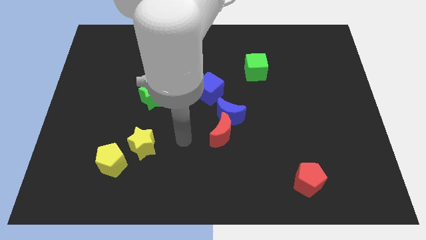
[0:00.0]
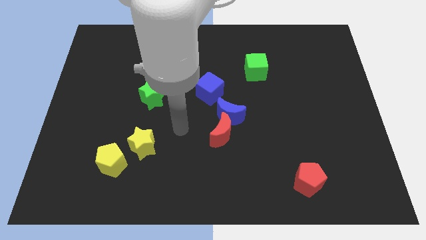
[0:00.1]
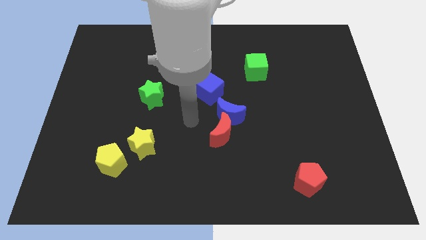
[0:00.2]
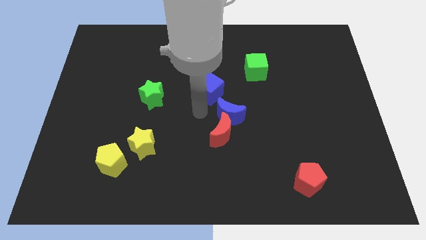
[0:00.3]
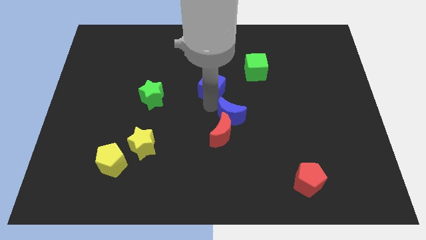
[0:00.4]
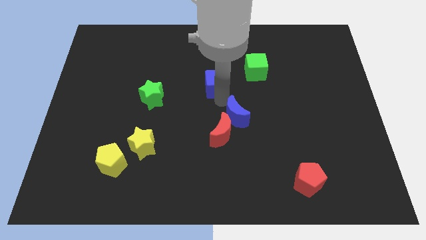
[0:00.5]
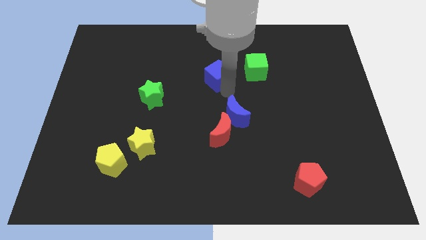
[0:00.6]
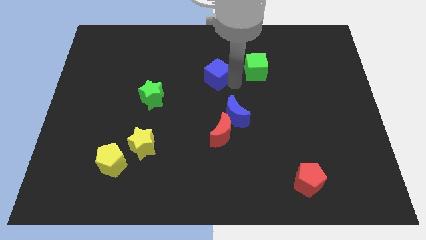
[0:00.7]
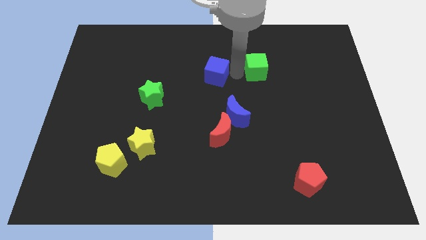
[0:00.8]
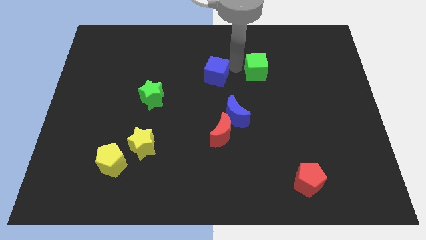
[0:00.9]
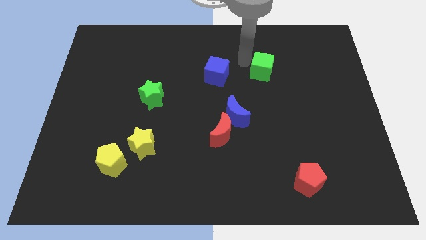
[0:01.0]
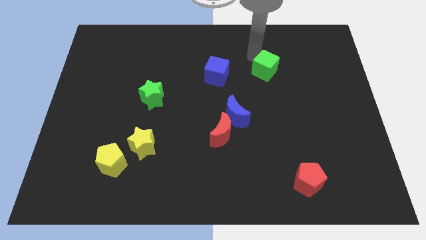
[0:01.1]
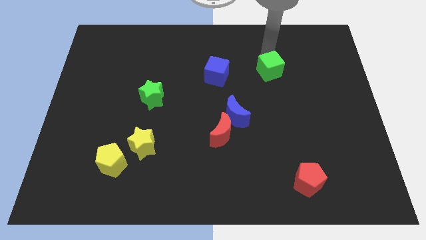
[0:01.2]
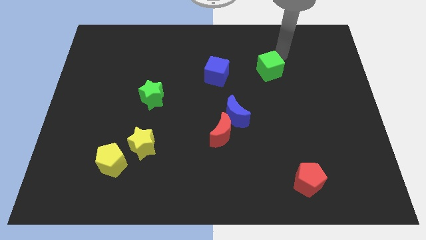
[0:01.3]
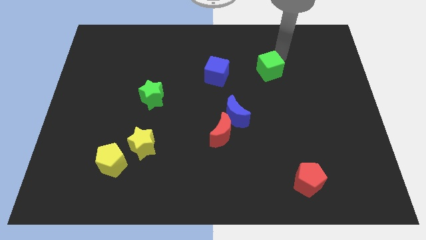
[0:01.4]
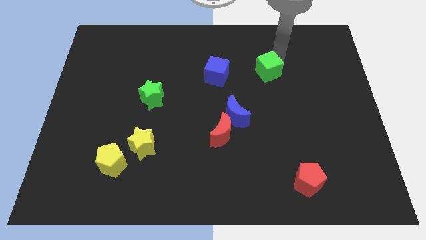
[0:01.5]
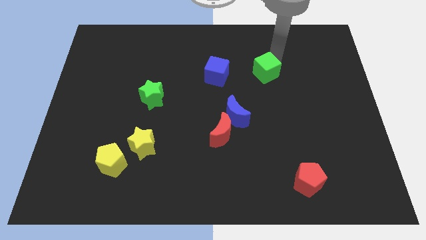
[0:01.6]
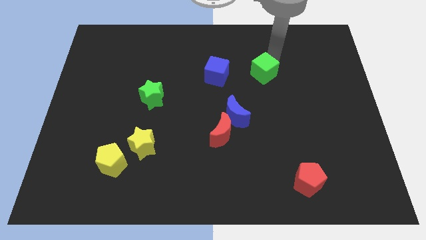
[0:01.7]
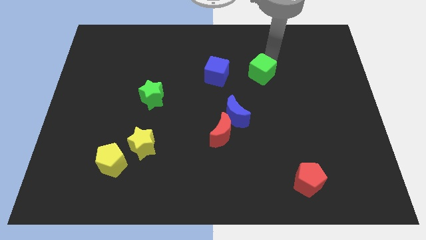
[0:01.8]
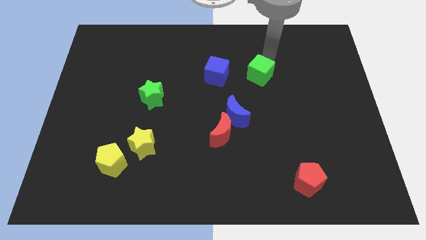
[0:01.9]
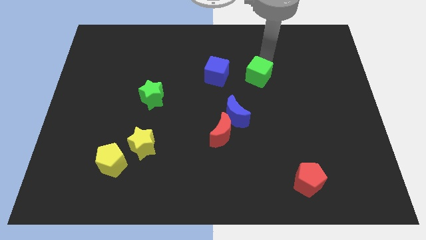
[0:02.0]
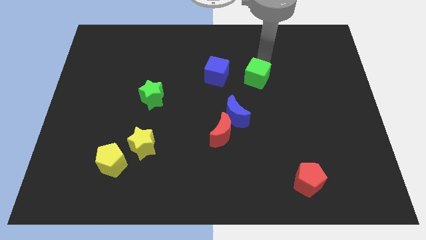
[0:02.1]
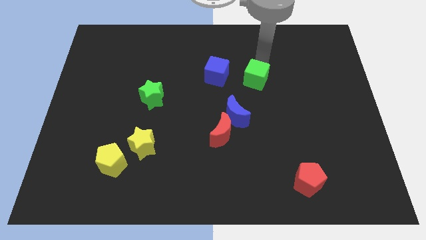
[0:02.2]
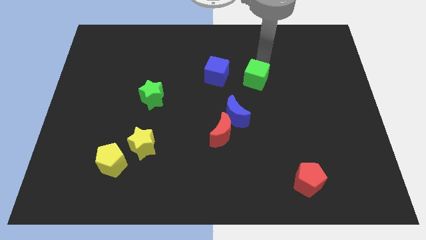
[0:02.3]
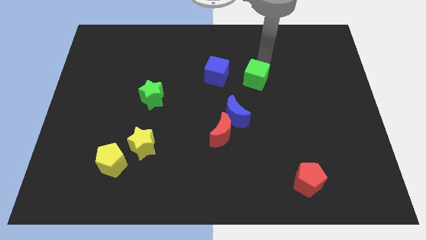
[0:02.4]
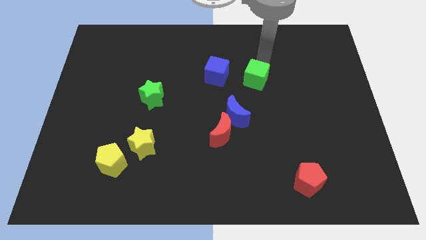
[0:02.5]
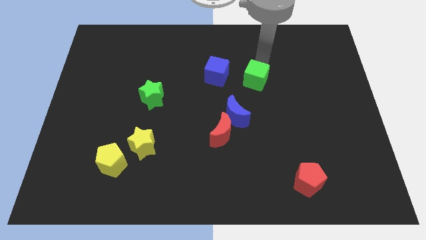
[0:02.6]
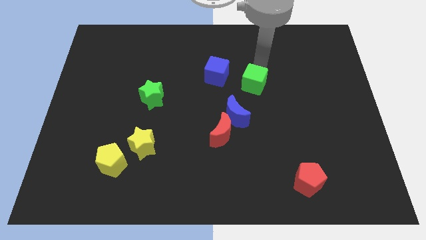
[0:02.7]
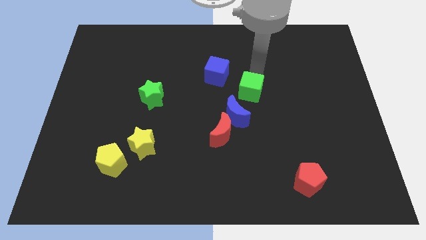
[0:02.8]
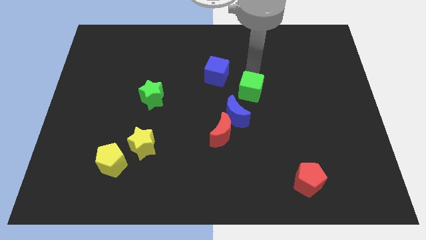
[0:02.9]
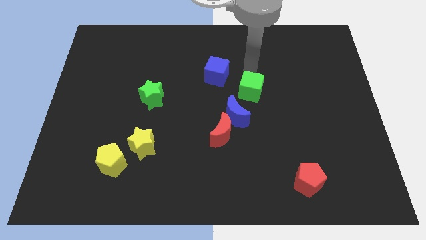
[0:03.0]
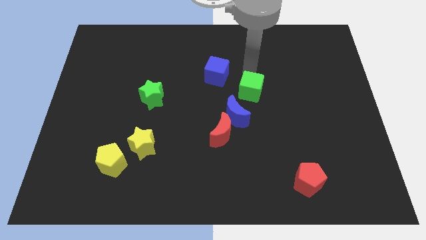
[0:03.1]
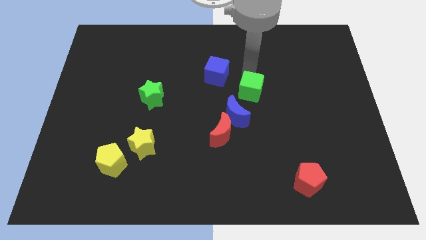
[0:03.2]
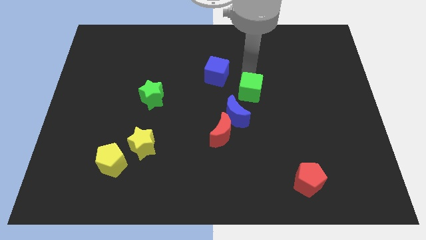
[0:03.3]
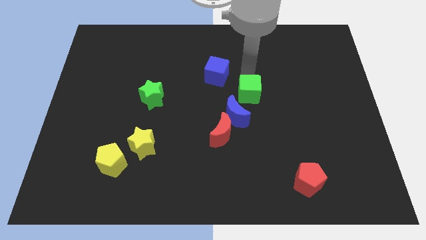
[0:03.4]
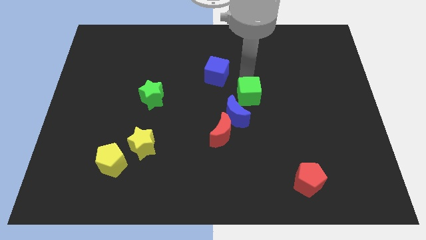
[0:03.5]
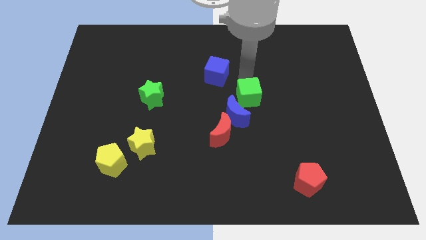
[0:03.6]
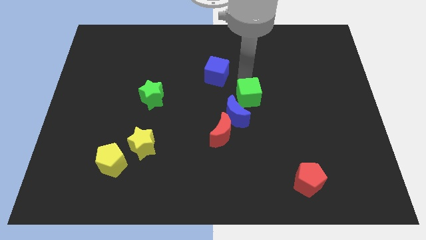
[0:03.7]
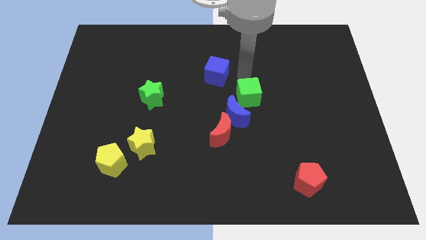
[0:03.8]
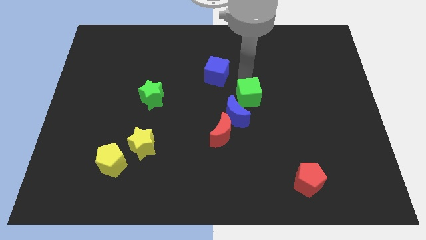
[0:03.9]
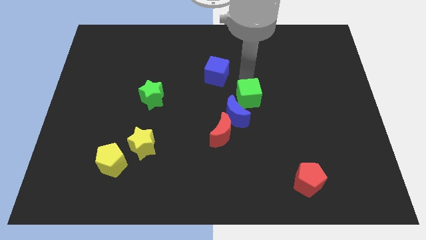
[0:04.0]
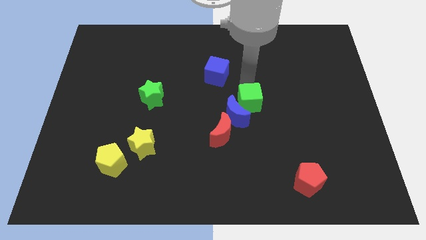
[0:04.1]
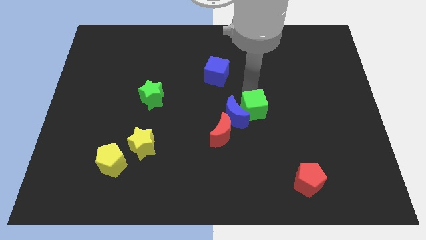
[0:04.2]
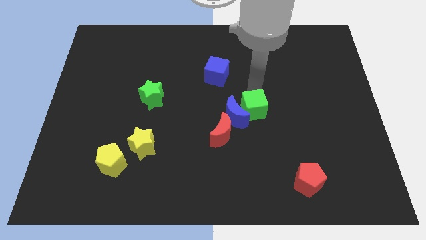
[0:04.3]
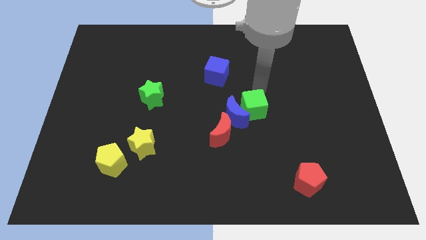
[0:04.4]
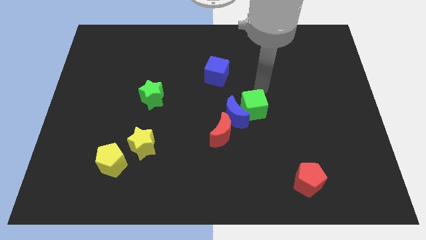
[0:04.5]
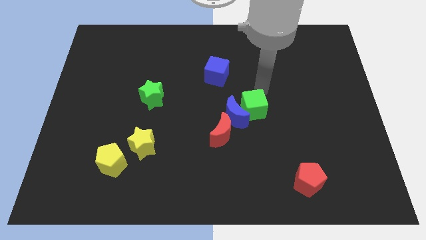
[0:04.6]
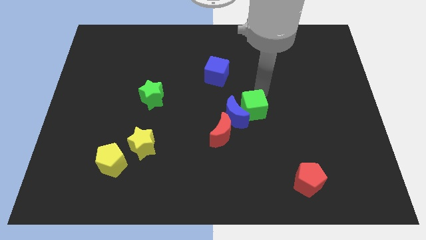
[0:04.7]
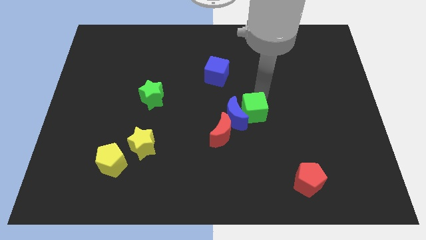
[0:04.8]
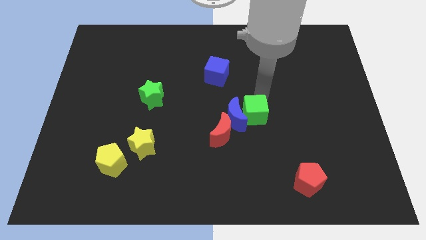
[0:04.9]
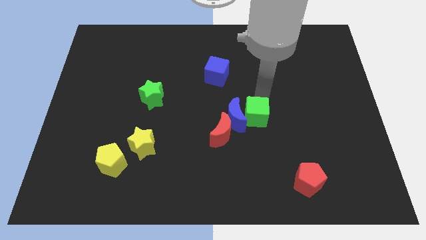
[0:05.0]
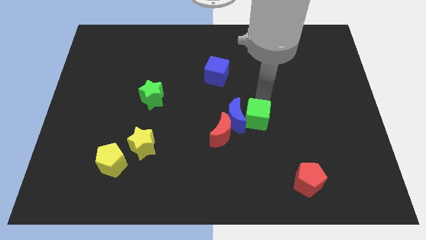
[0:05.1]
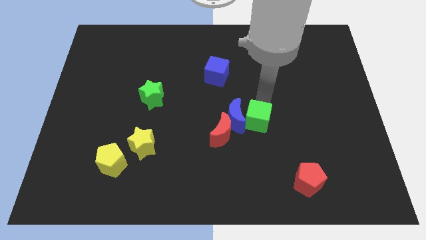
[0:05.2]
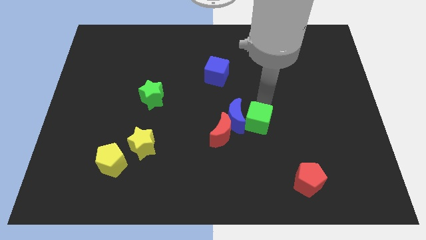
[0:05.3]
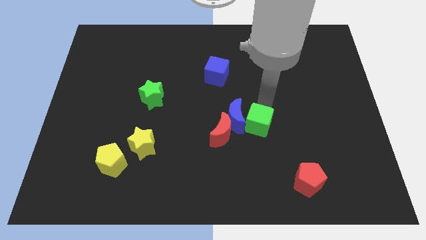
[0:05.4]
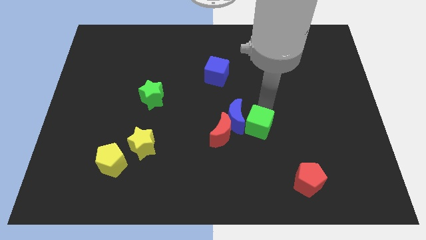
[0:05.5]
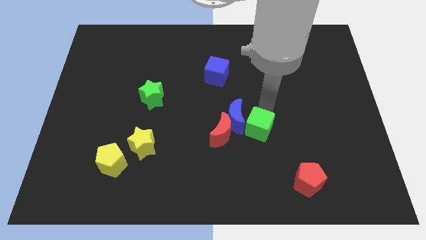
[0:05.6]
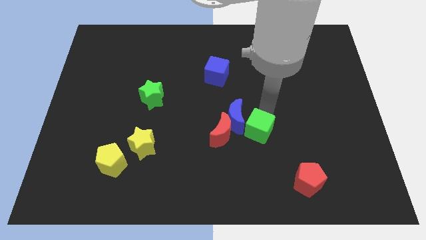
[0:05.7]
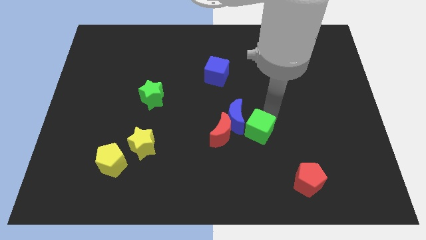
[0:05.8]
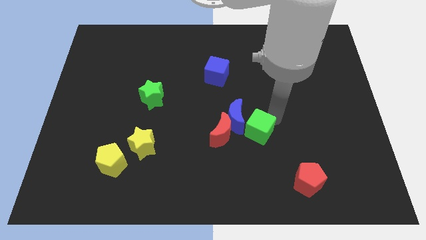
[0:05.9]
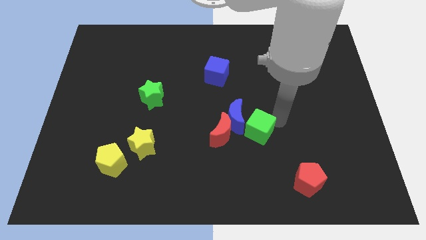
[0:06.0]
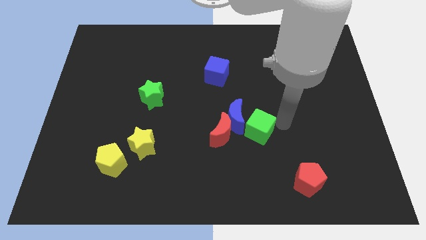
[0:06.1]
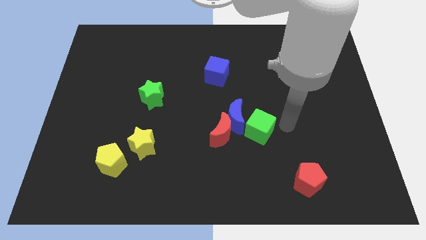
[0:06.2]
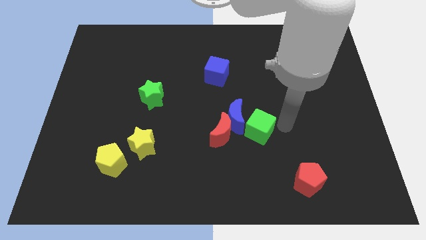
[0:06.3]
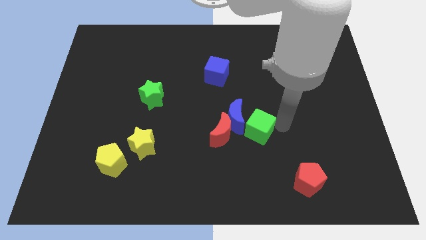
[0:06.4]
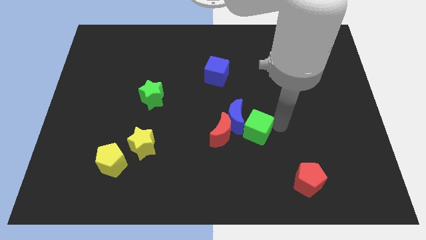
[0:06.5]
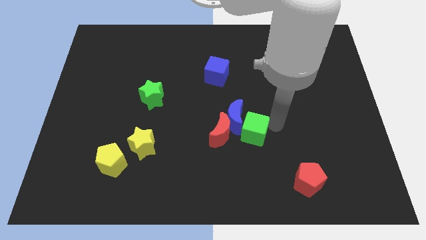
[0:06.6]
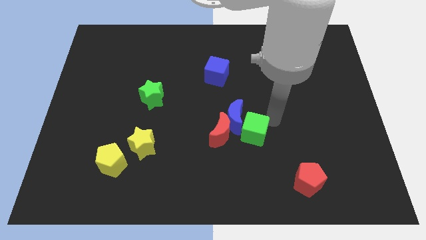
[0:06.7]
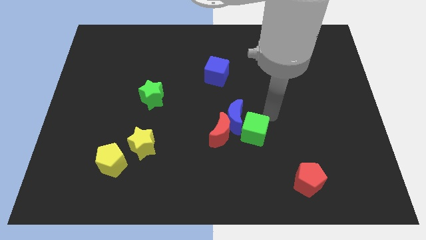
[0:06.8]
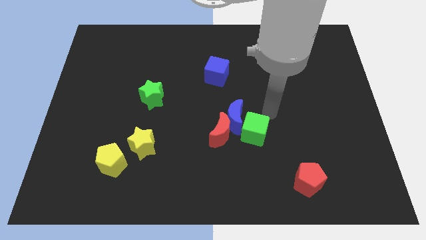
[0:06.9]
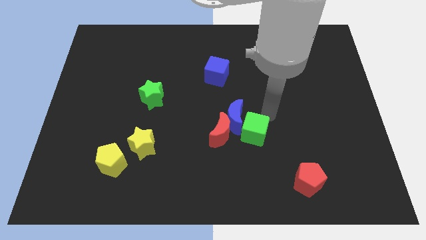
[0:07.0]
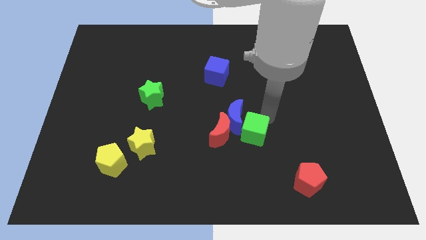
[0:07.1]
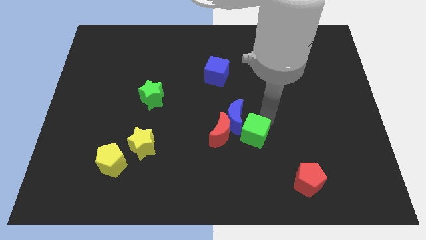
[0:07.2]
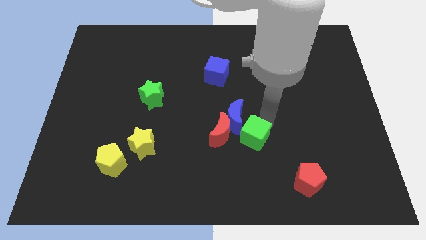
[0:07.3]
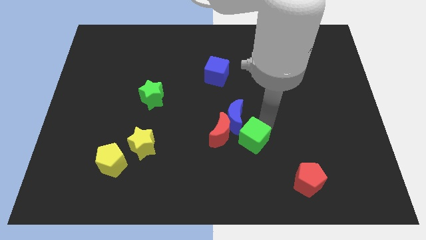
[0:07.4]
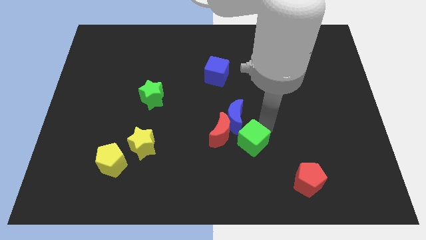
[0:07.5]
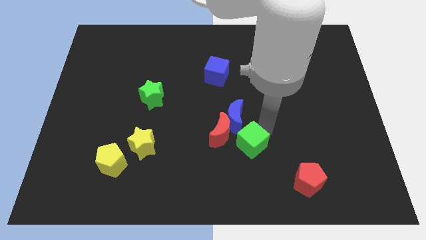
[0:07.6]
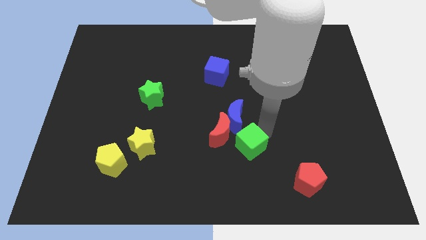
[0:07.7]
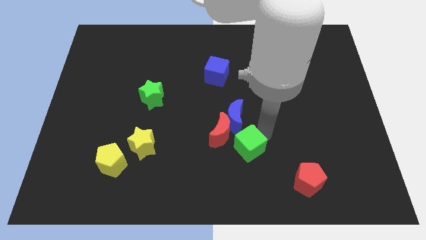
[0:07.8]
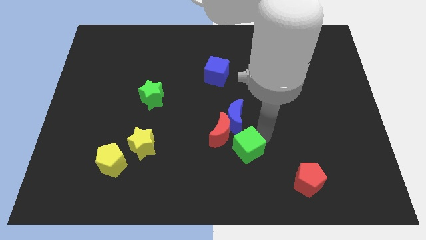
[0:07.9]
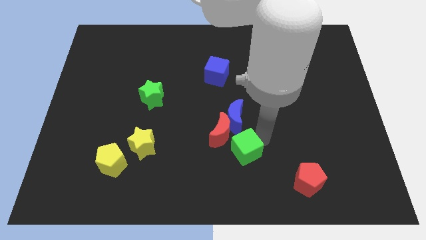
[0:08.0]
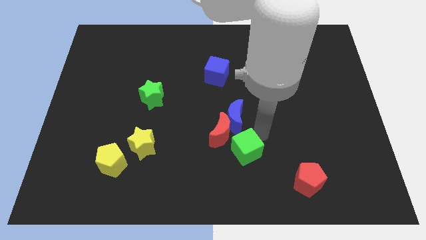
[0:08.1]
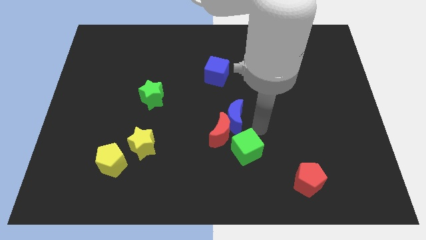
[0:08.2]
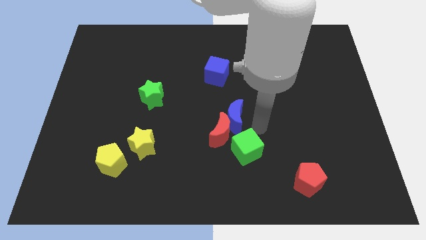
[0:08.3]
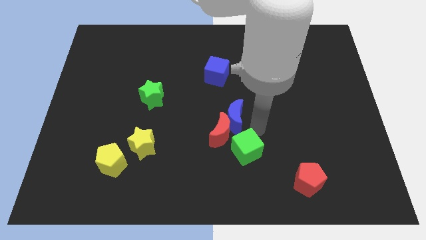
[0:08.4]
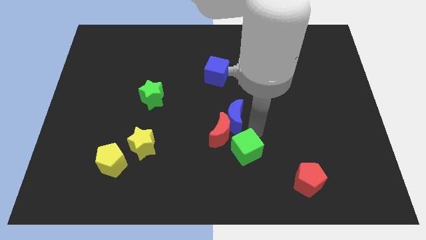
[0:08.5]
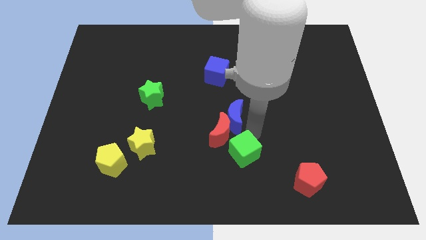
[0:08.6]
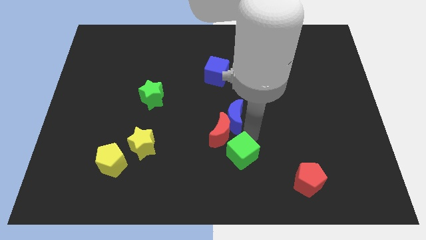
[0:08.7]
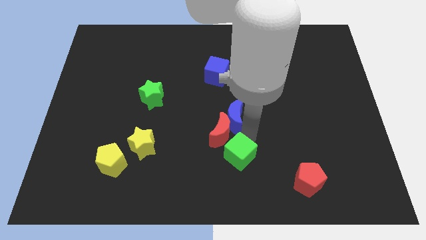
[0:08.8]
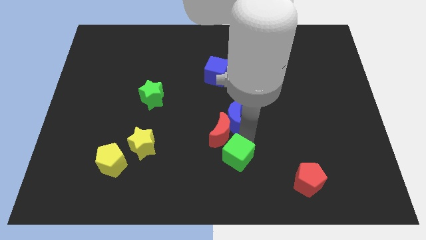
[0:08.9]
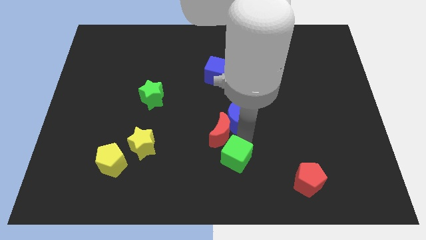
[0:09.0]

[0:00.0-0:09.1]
slide the green cube to the bottom side
